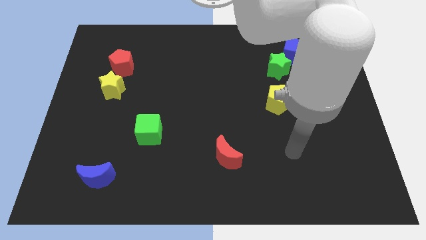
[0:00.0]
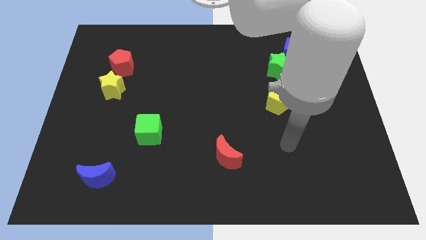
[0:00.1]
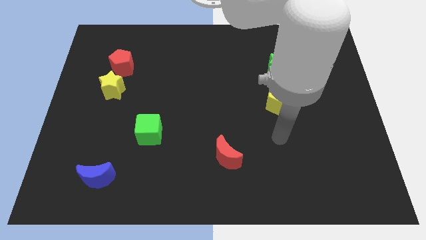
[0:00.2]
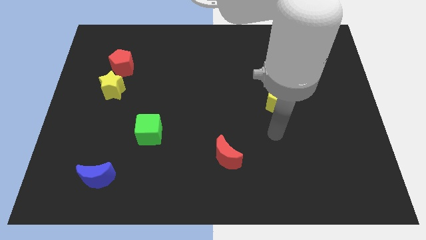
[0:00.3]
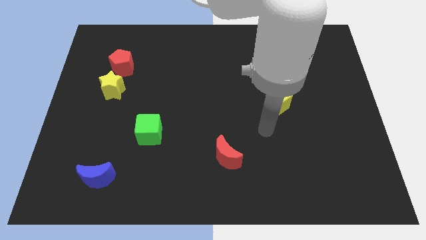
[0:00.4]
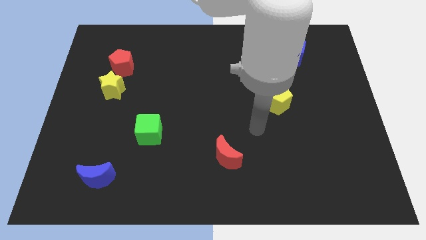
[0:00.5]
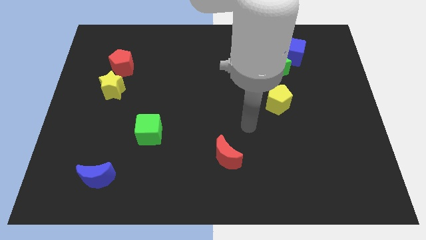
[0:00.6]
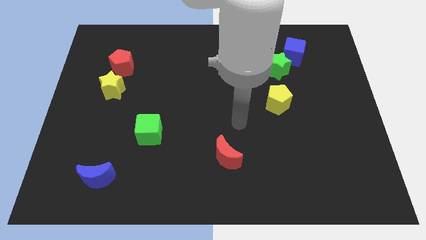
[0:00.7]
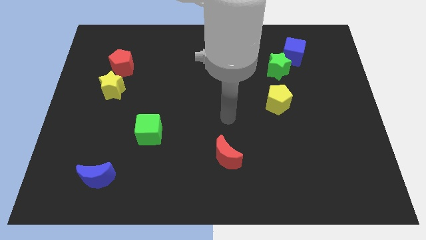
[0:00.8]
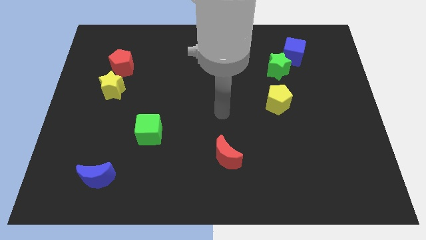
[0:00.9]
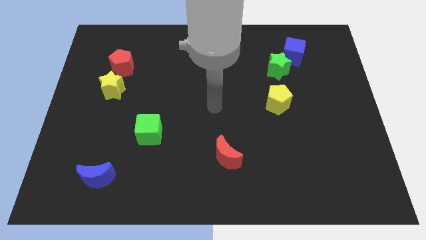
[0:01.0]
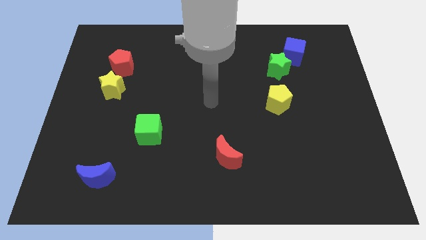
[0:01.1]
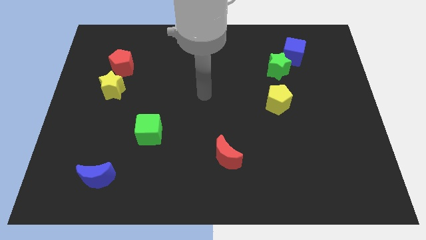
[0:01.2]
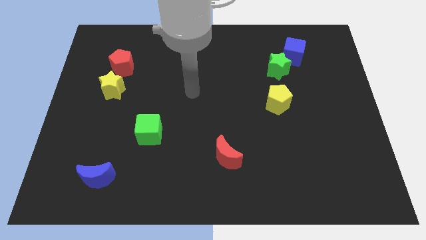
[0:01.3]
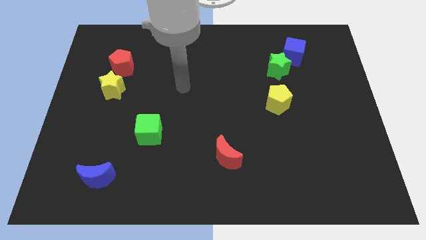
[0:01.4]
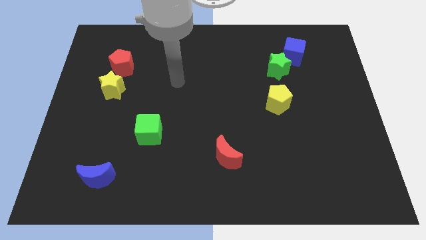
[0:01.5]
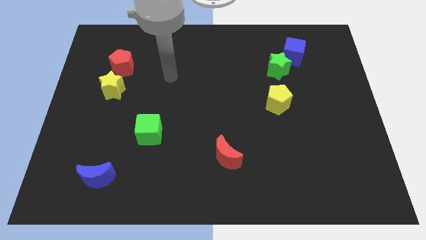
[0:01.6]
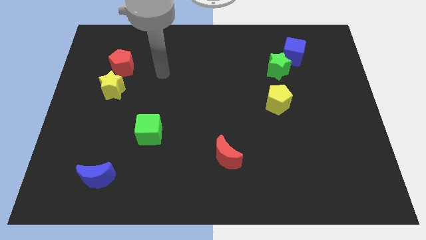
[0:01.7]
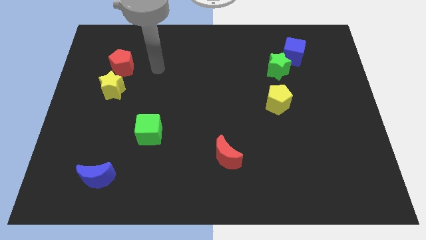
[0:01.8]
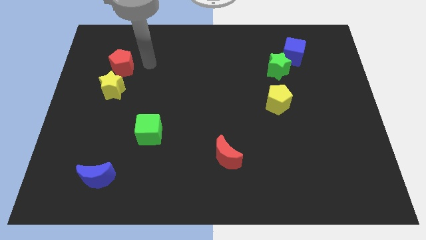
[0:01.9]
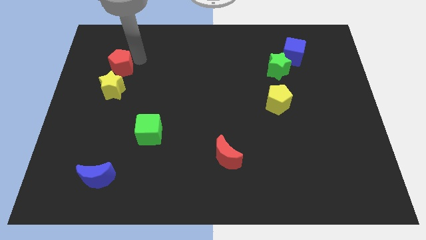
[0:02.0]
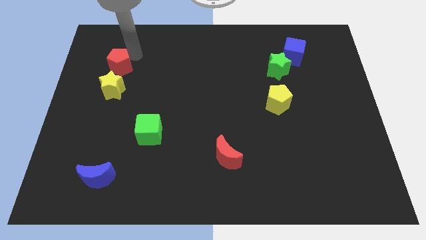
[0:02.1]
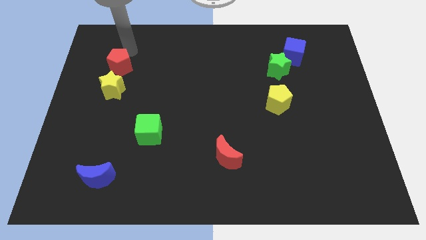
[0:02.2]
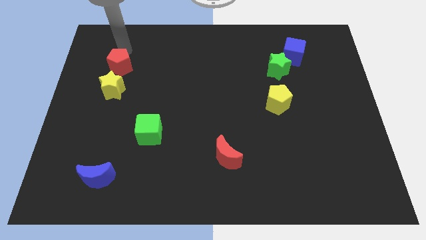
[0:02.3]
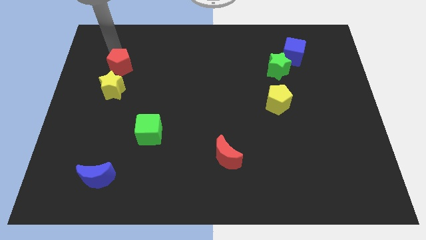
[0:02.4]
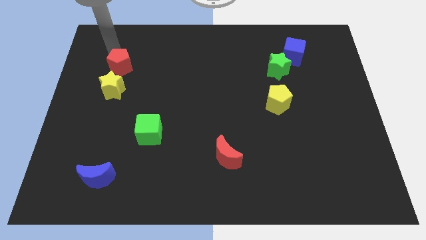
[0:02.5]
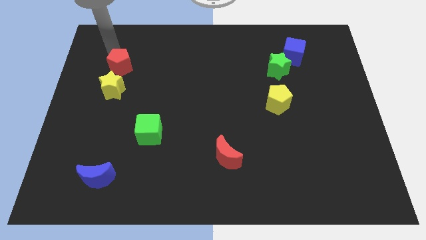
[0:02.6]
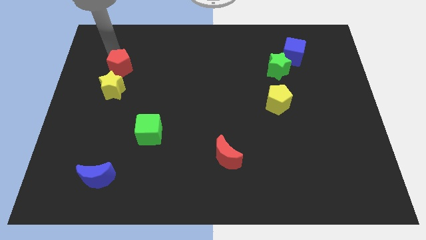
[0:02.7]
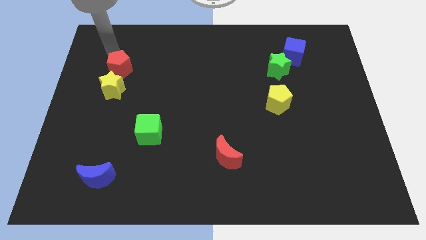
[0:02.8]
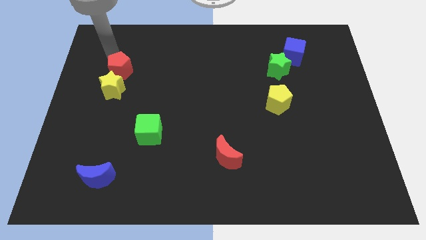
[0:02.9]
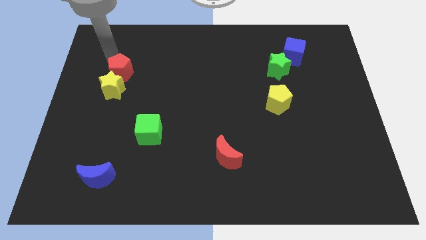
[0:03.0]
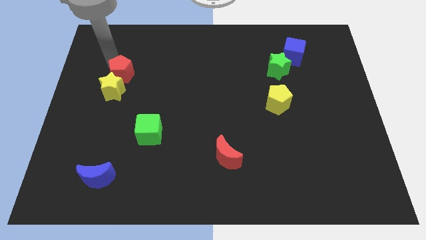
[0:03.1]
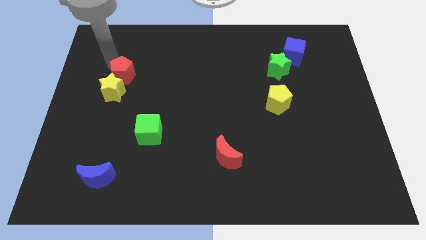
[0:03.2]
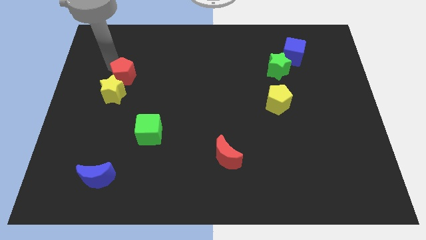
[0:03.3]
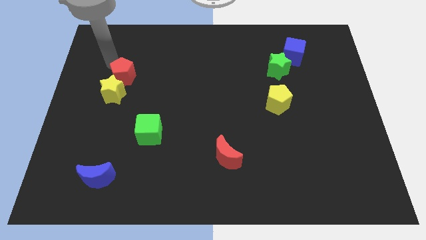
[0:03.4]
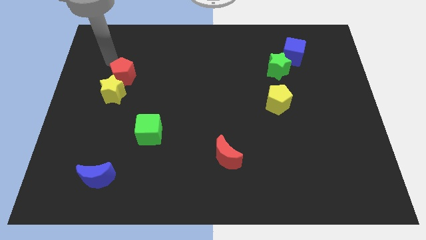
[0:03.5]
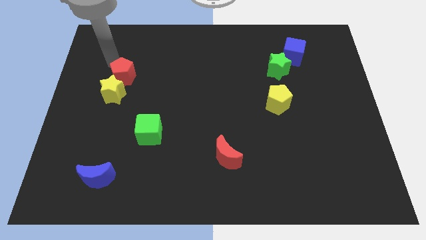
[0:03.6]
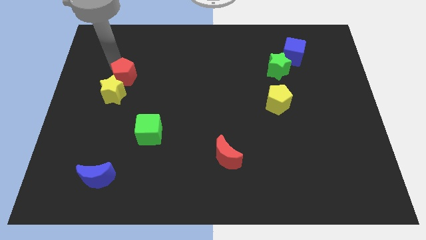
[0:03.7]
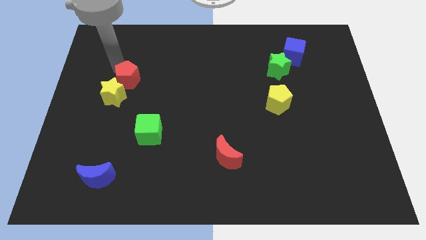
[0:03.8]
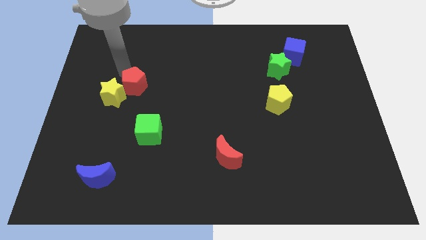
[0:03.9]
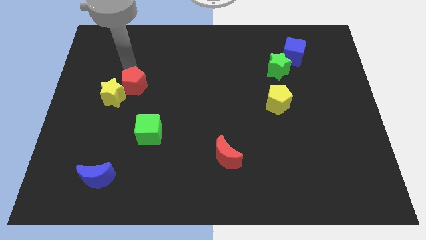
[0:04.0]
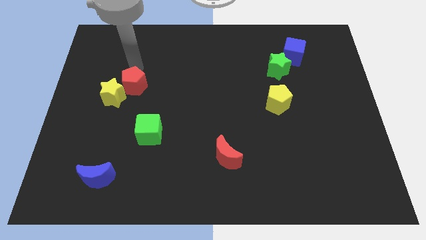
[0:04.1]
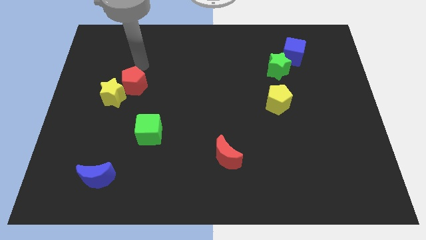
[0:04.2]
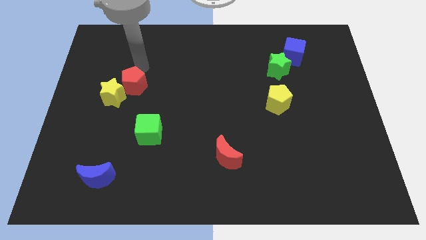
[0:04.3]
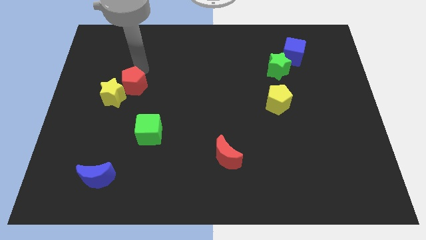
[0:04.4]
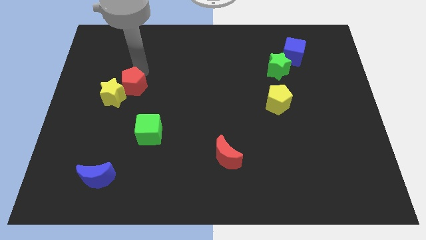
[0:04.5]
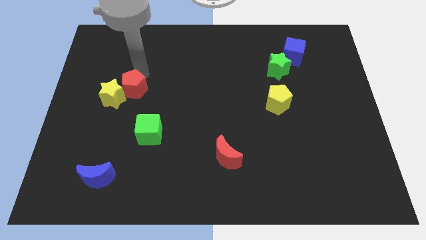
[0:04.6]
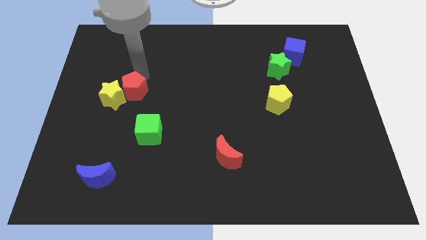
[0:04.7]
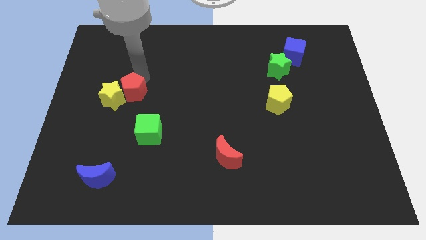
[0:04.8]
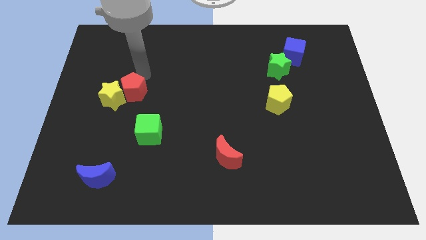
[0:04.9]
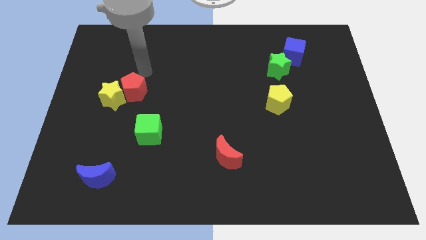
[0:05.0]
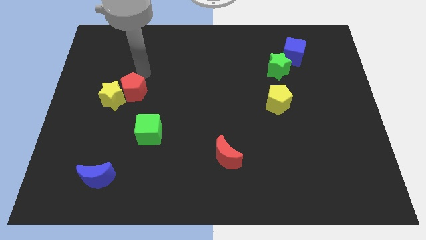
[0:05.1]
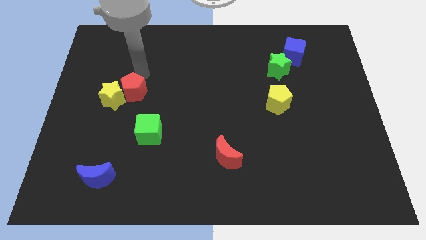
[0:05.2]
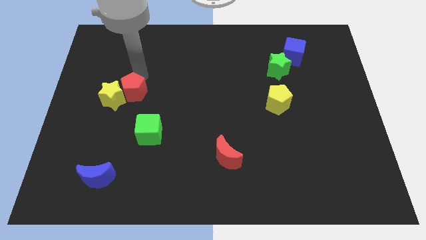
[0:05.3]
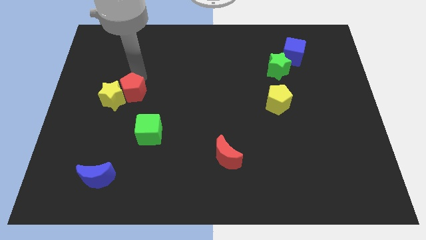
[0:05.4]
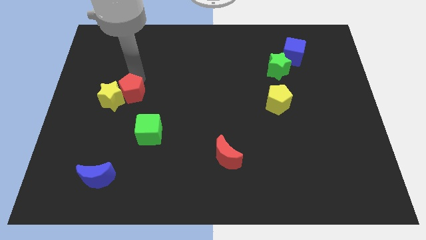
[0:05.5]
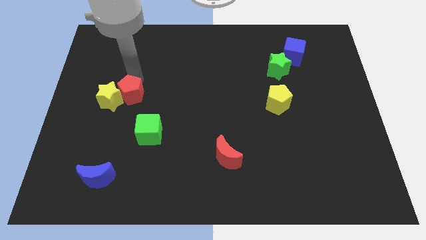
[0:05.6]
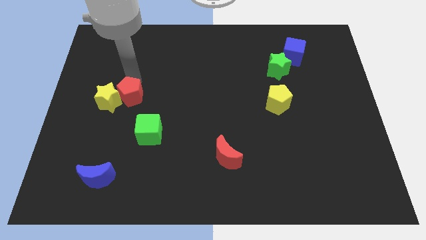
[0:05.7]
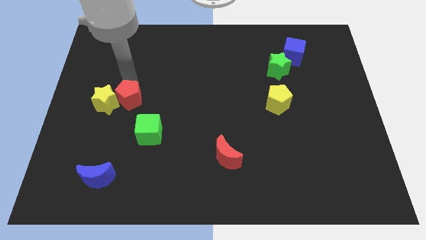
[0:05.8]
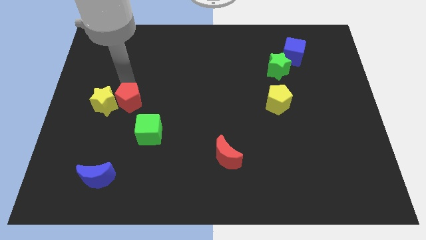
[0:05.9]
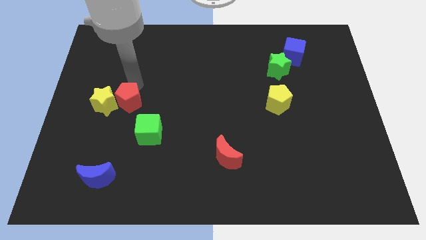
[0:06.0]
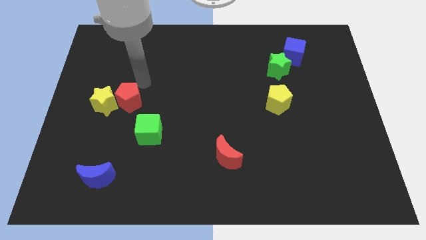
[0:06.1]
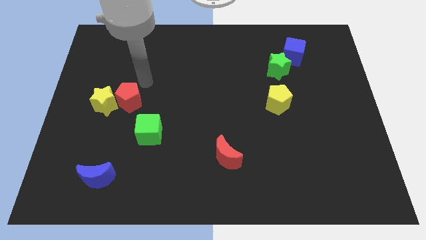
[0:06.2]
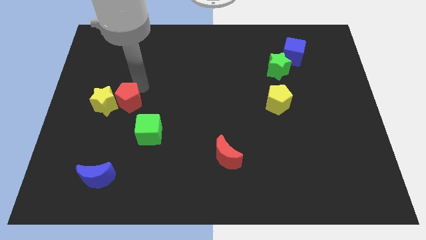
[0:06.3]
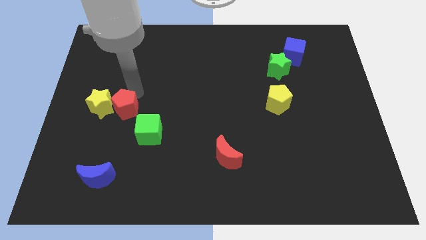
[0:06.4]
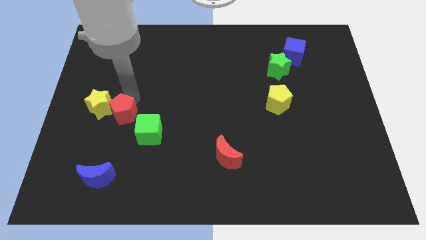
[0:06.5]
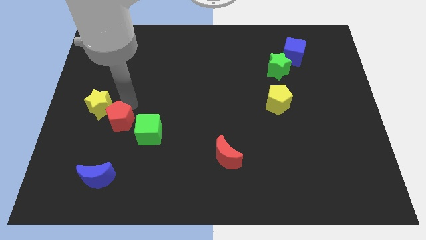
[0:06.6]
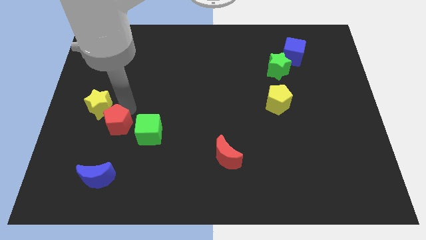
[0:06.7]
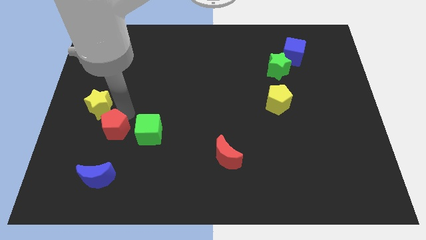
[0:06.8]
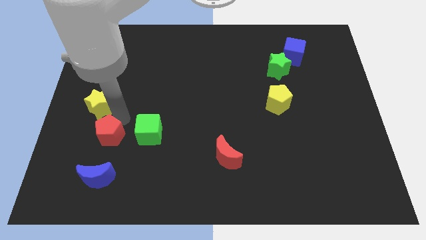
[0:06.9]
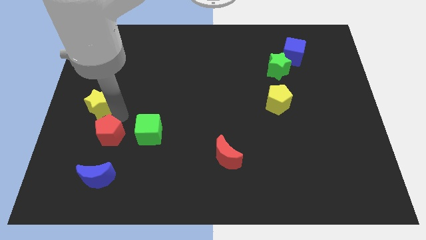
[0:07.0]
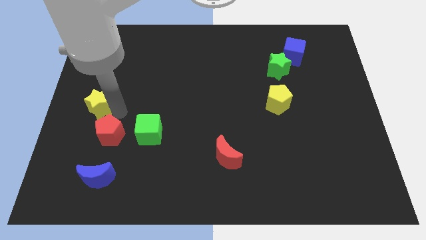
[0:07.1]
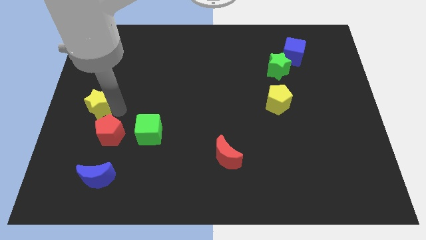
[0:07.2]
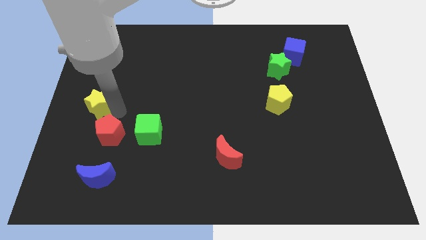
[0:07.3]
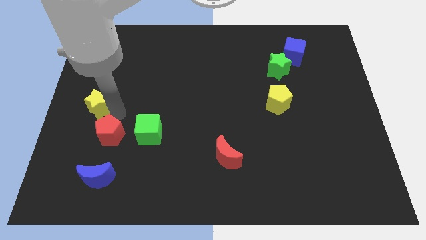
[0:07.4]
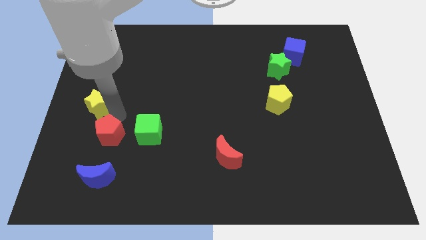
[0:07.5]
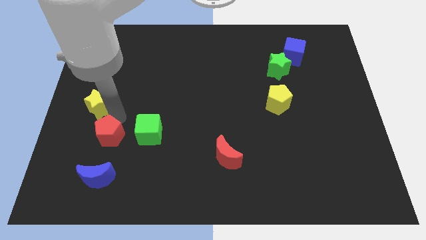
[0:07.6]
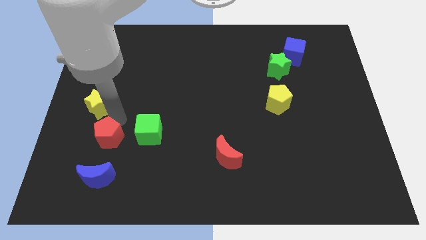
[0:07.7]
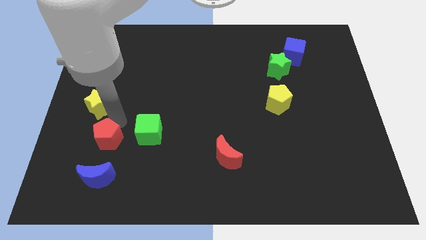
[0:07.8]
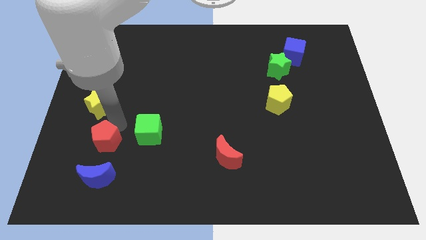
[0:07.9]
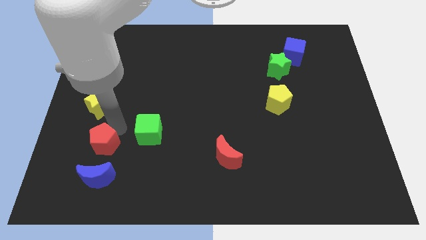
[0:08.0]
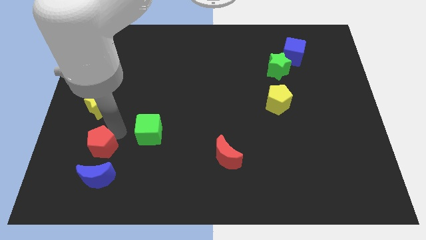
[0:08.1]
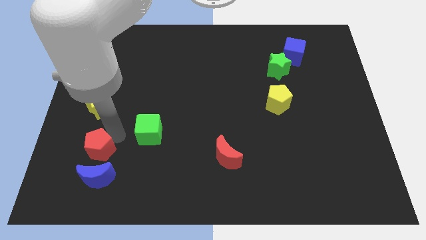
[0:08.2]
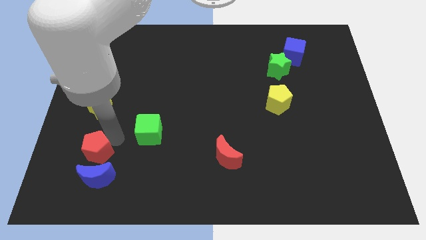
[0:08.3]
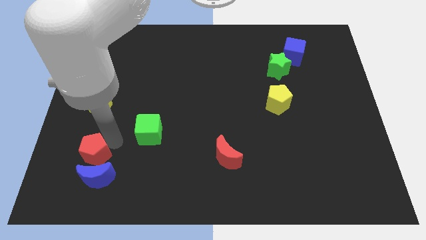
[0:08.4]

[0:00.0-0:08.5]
slide the red pentagon next to the blue moon
